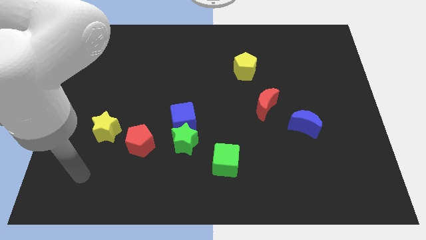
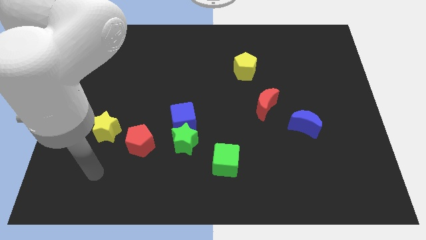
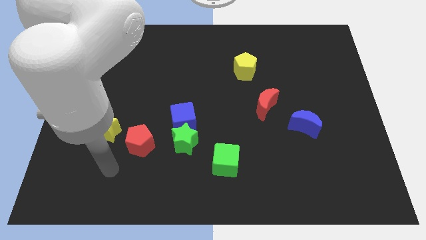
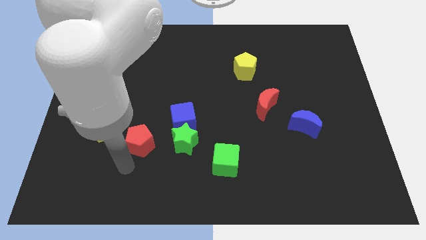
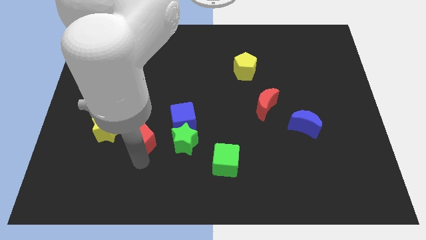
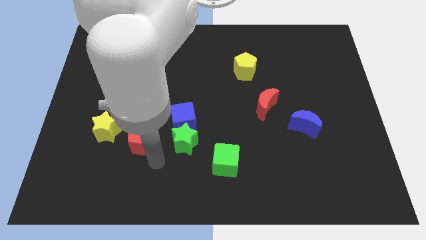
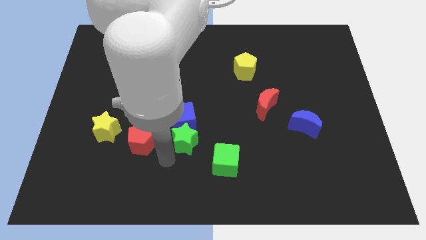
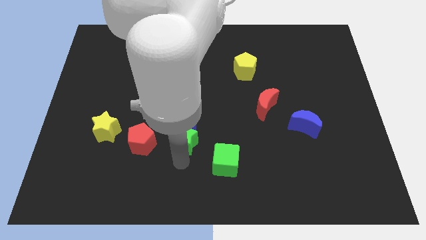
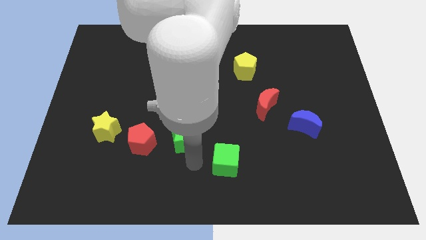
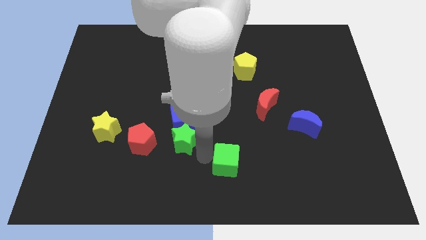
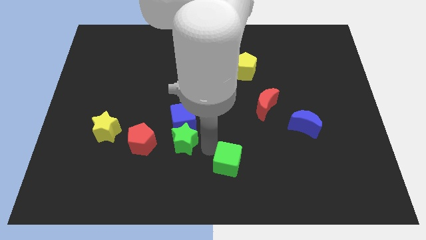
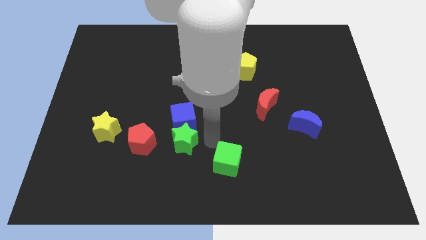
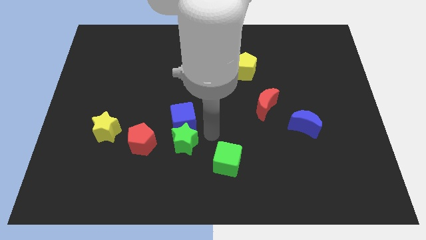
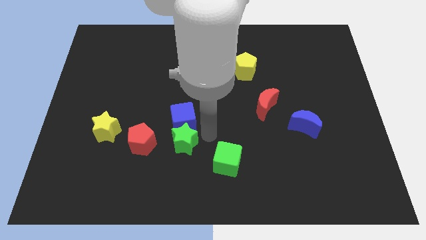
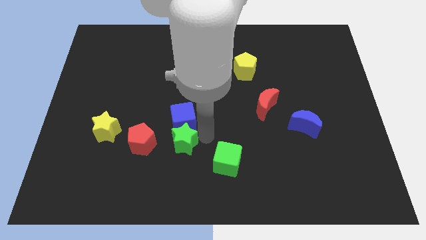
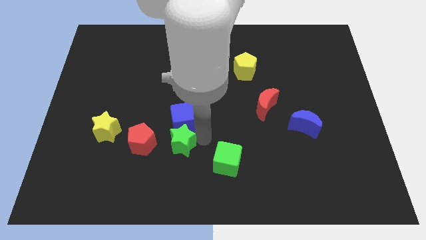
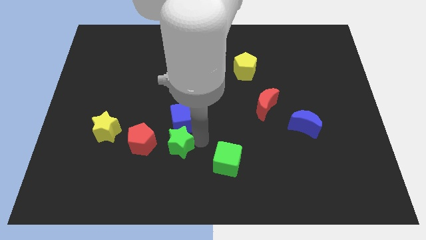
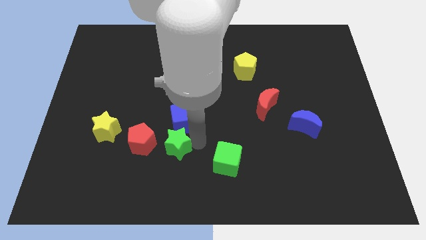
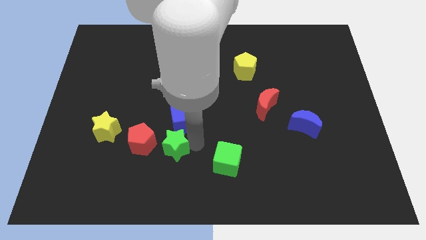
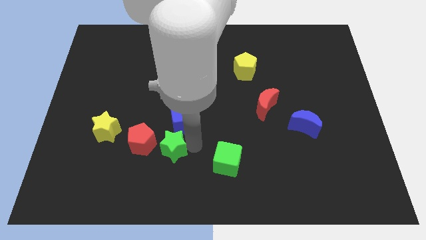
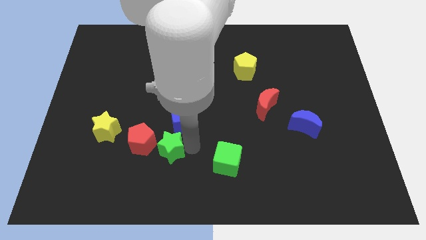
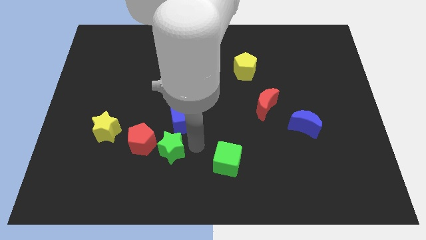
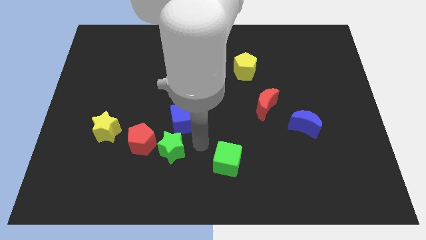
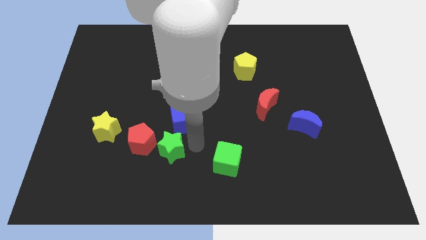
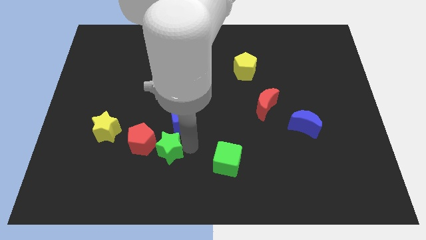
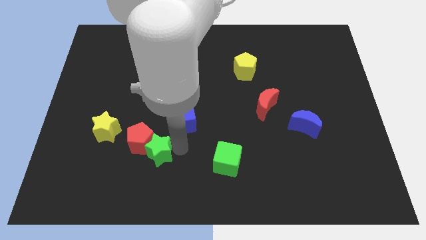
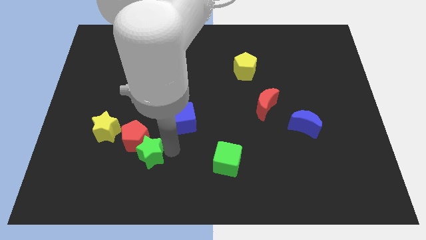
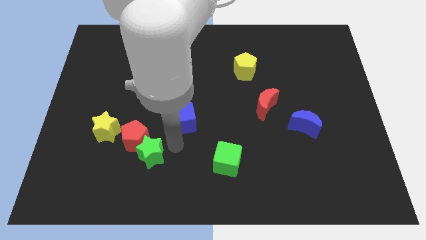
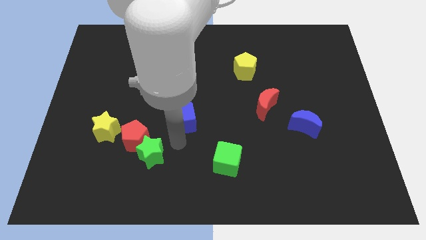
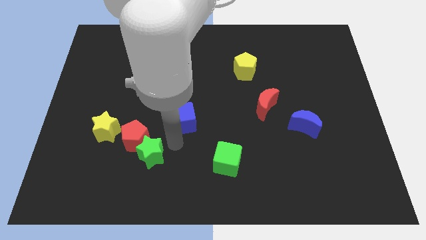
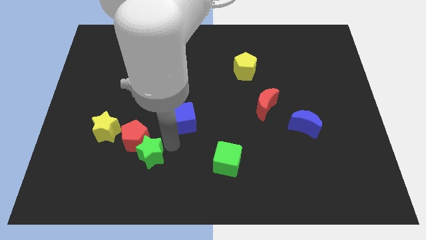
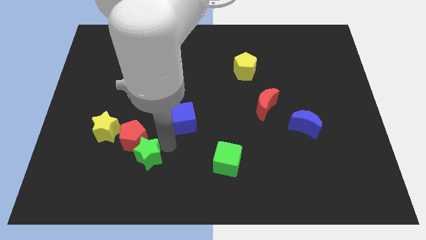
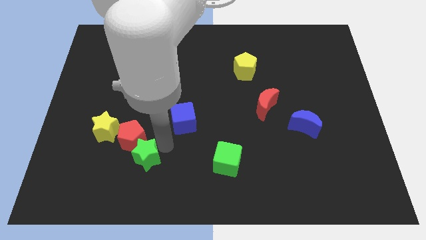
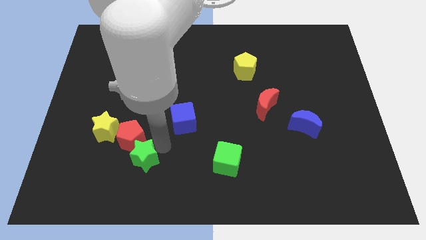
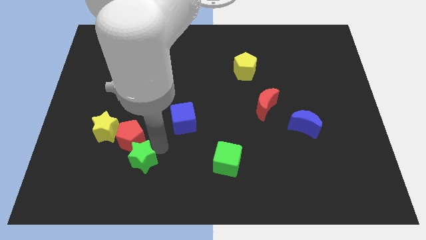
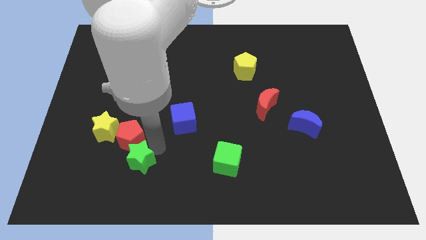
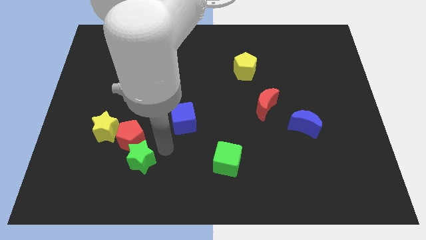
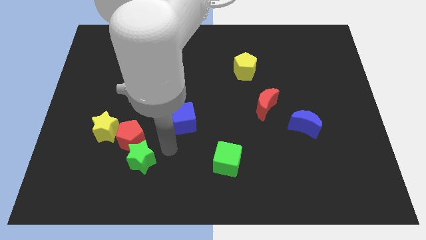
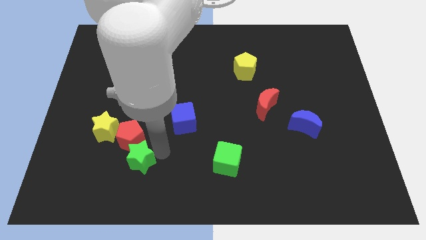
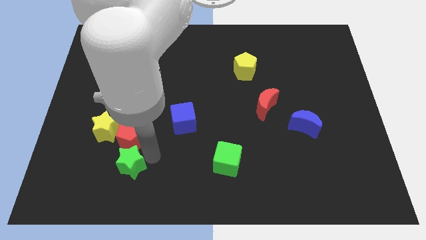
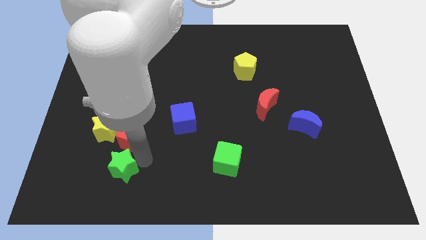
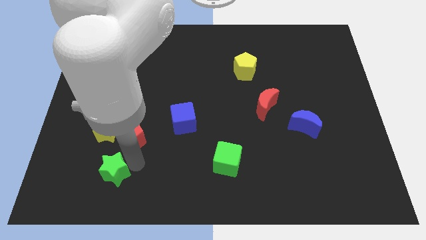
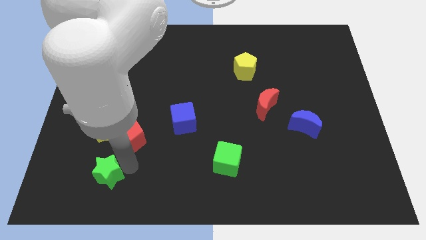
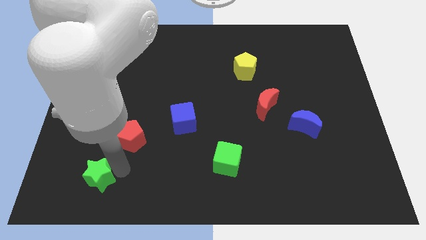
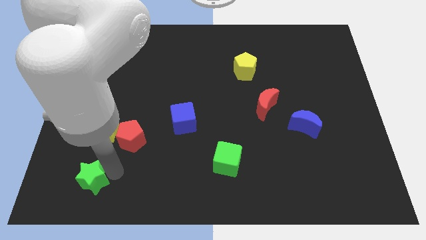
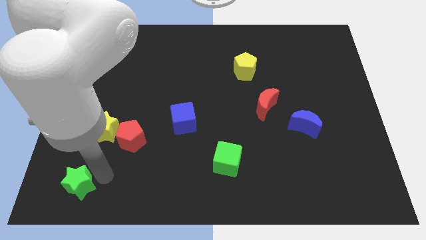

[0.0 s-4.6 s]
put the green star to the bottom left corner

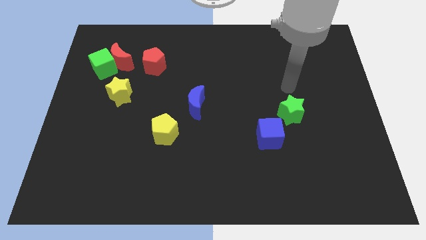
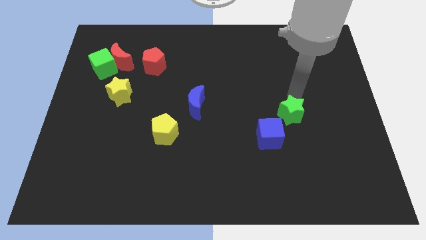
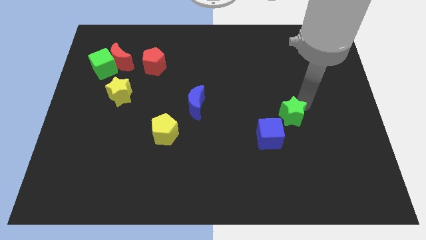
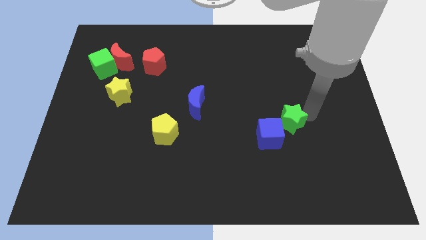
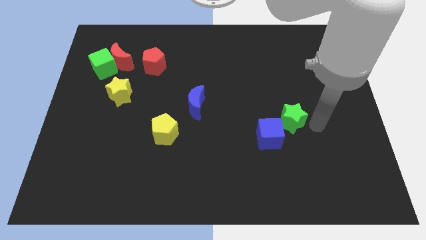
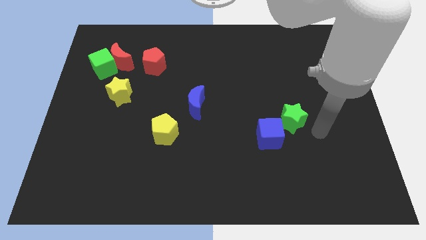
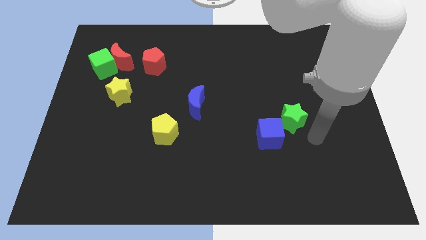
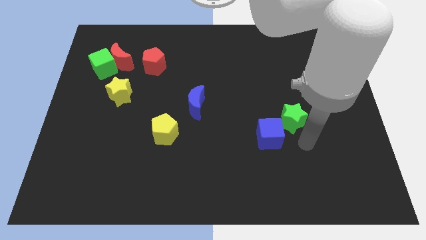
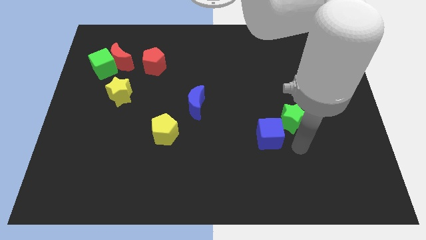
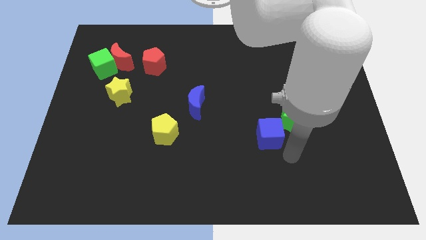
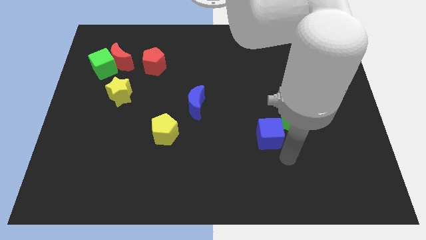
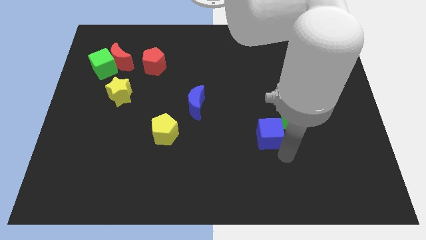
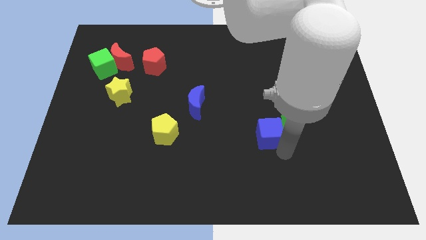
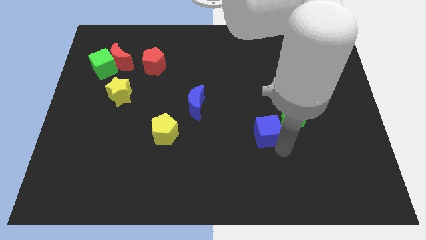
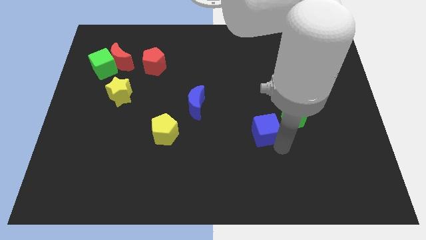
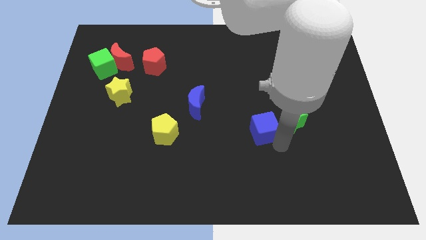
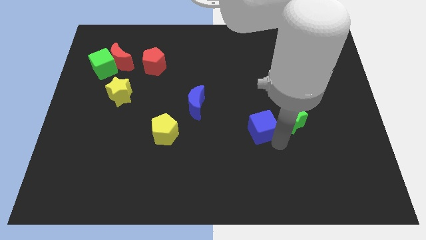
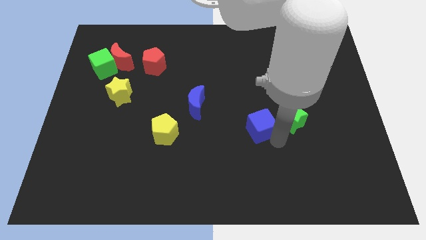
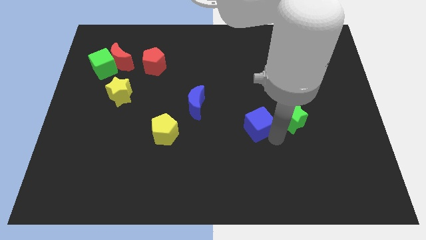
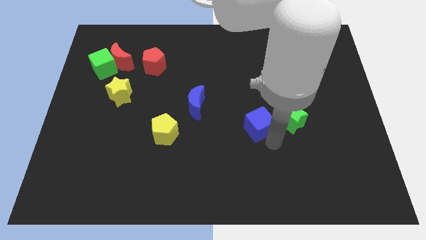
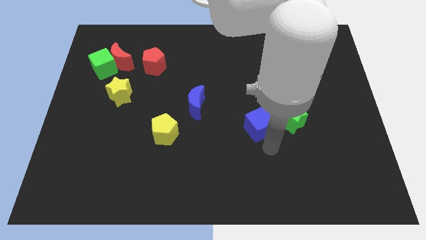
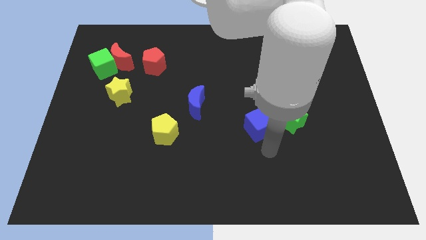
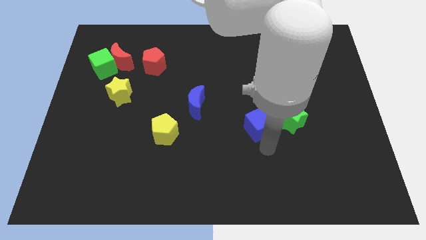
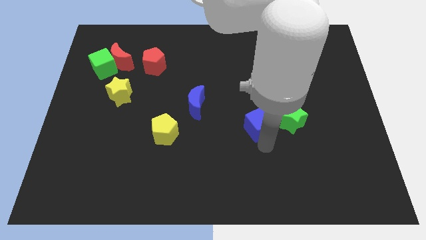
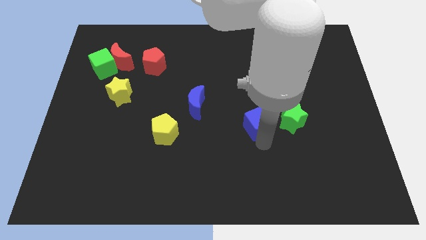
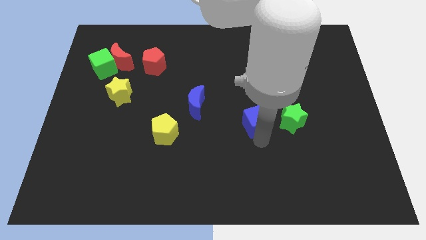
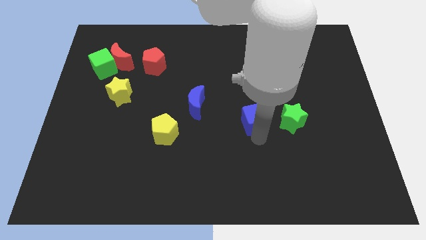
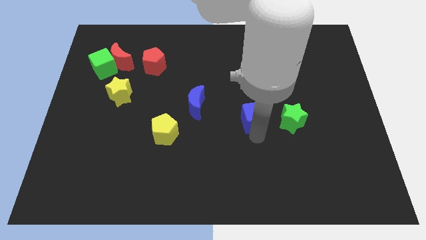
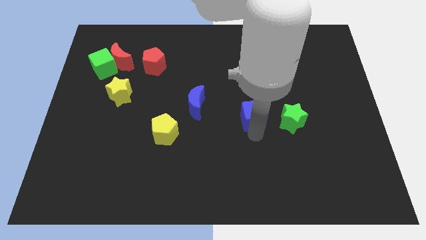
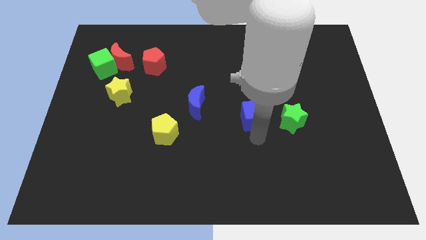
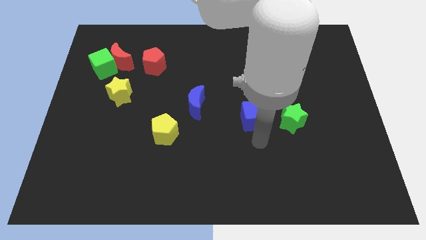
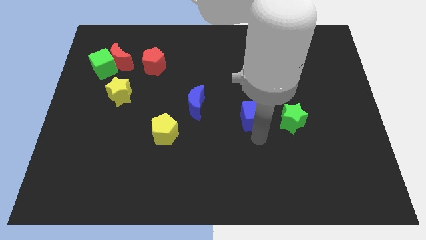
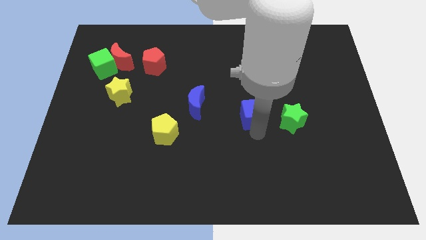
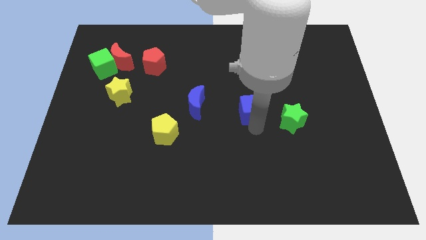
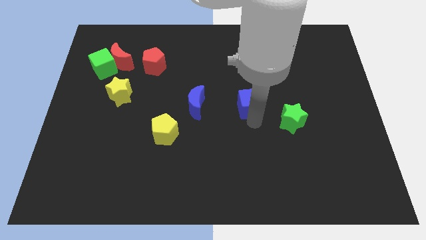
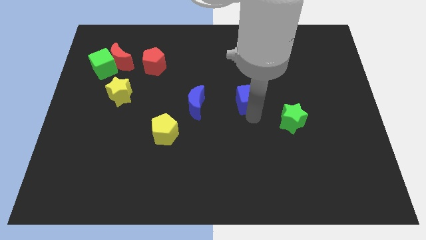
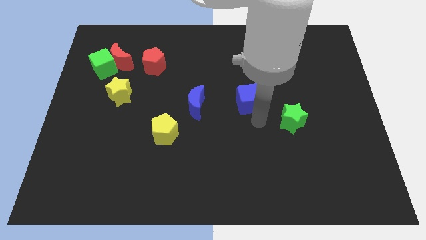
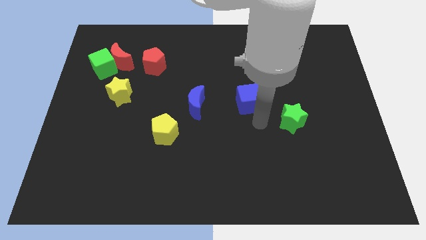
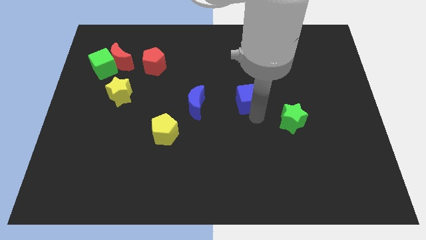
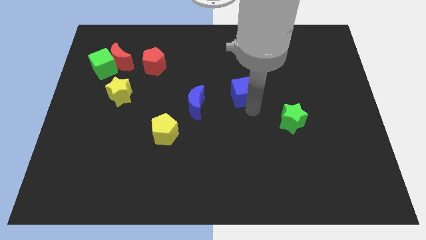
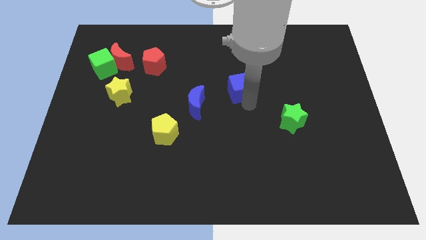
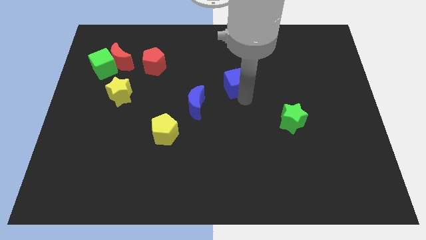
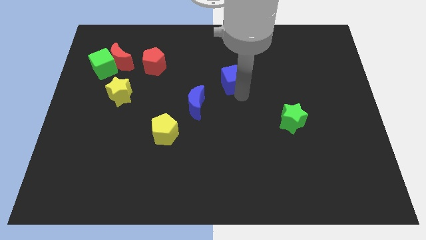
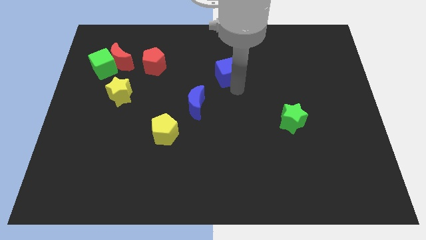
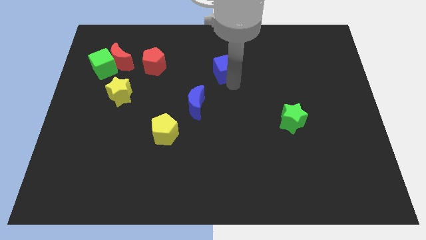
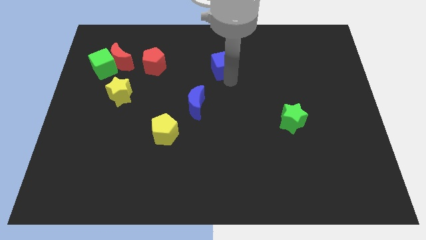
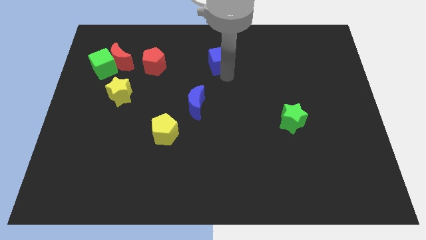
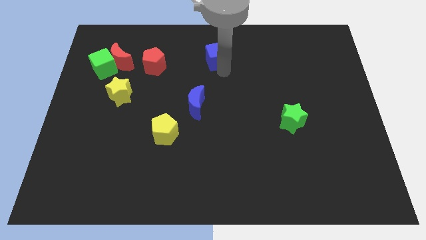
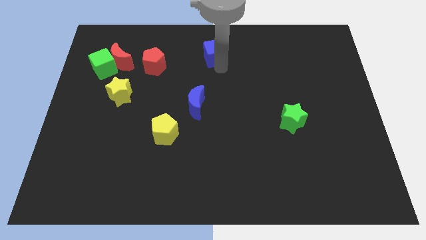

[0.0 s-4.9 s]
move the blue cube to the towards your base
